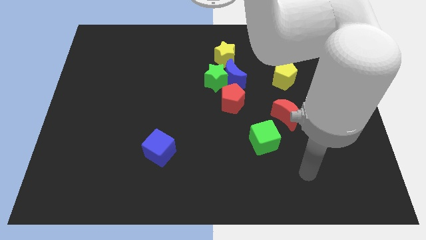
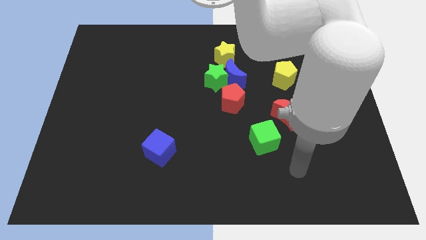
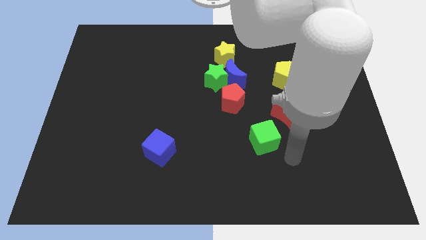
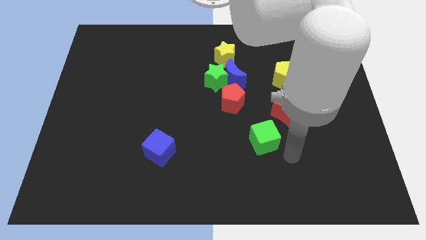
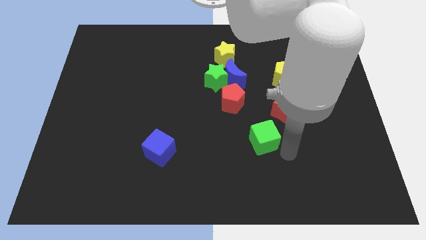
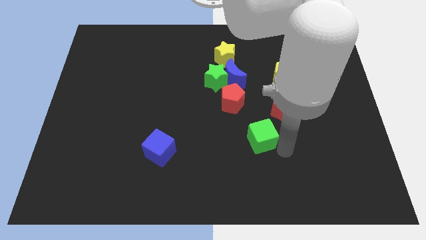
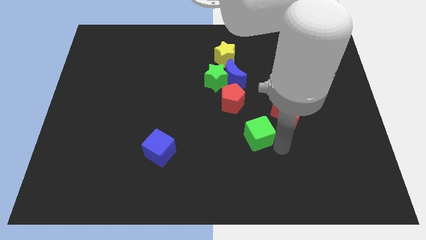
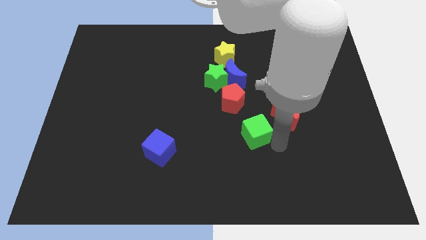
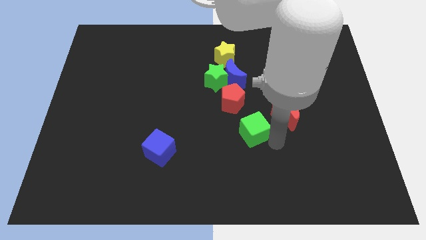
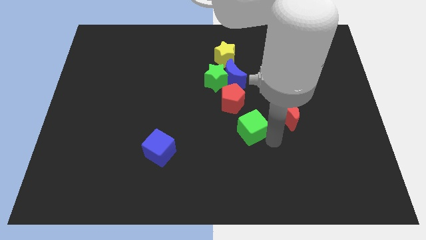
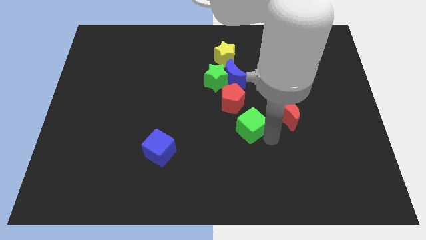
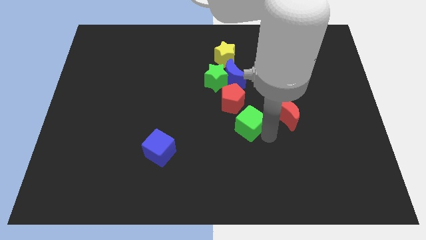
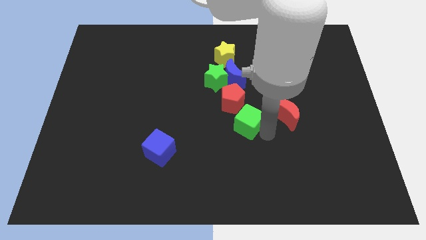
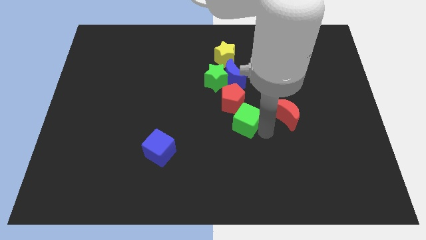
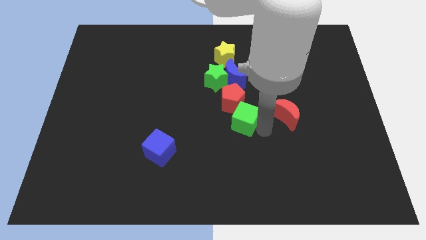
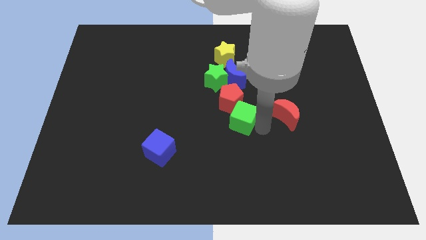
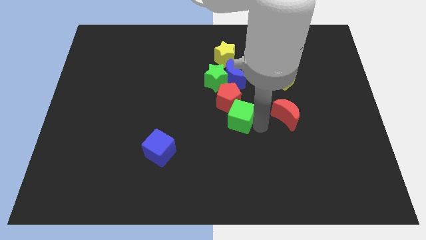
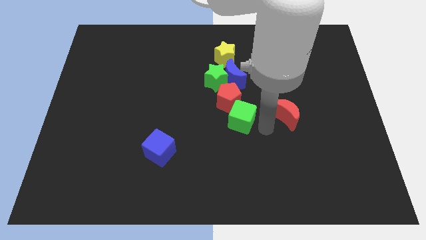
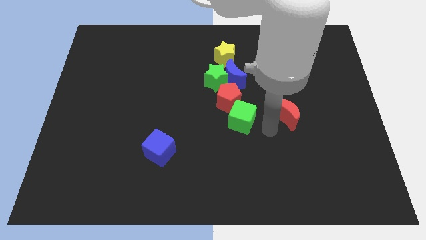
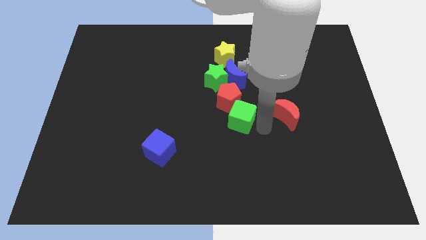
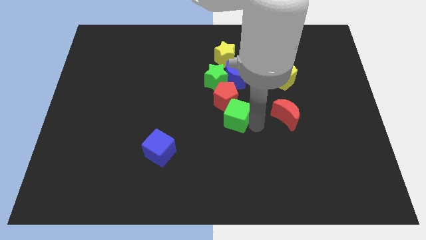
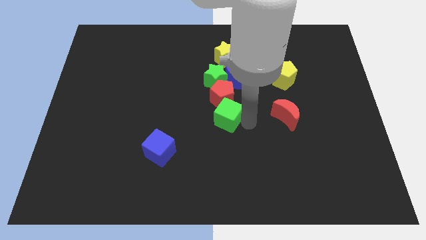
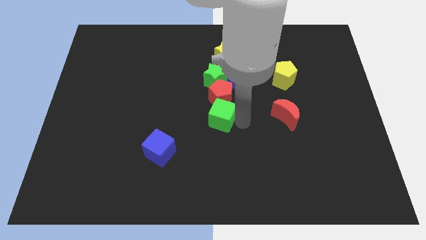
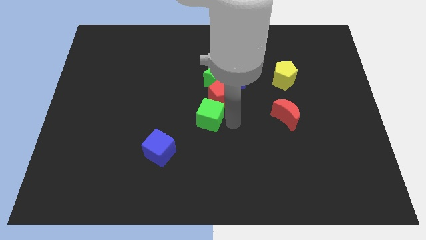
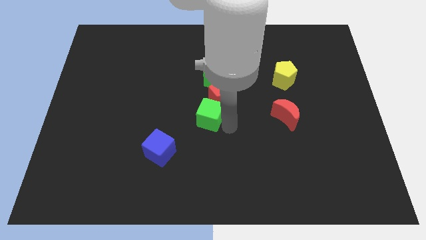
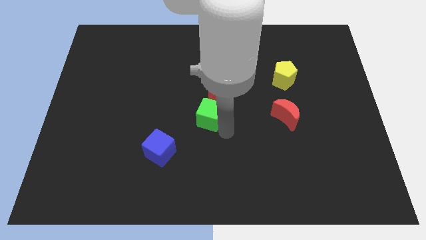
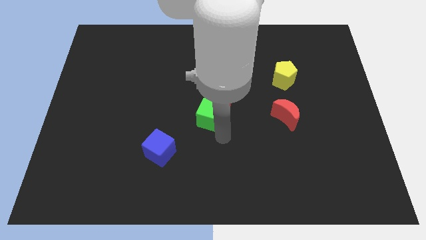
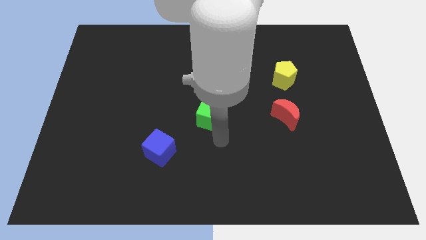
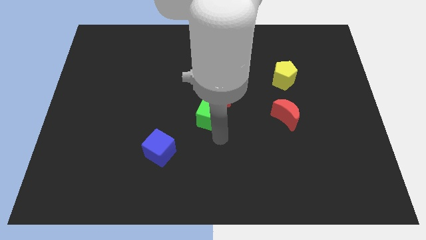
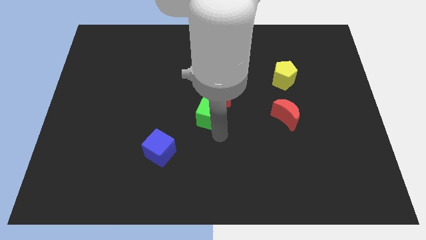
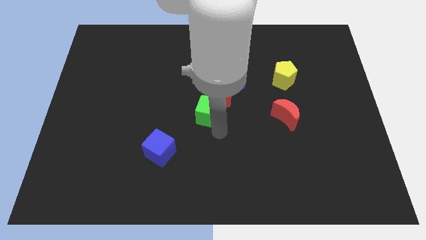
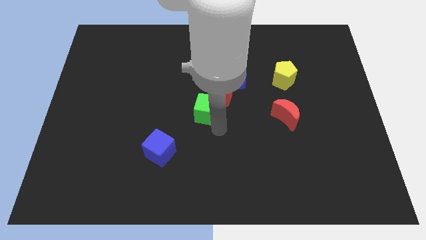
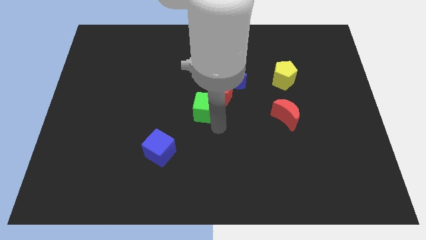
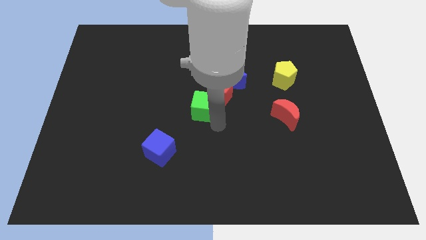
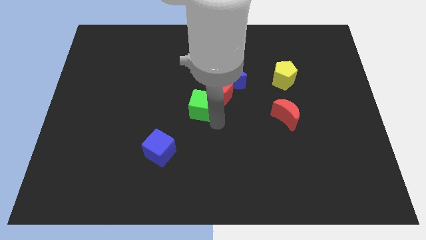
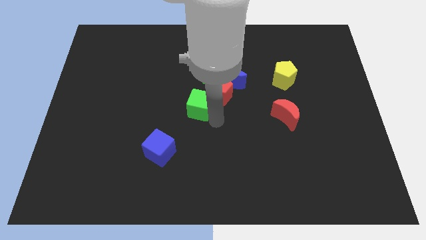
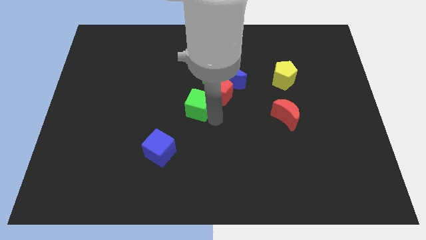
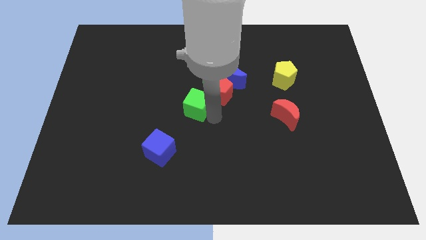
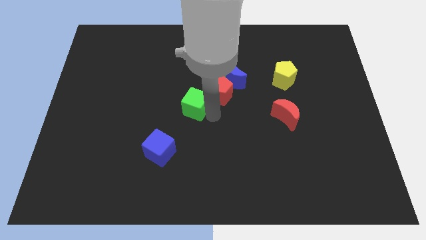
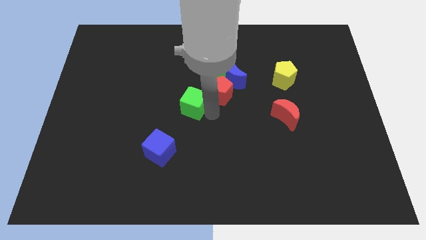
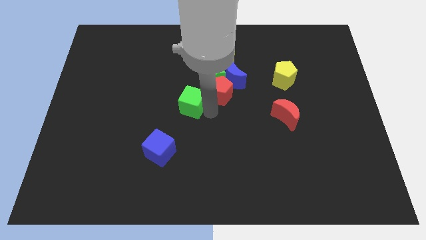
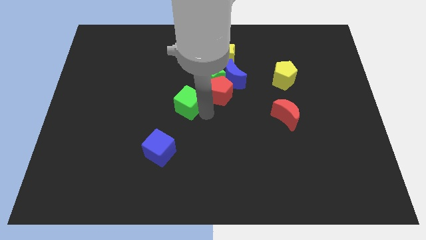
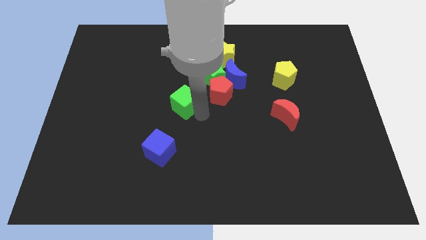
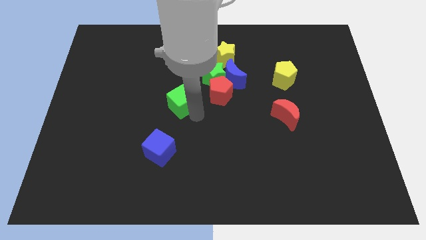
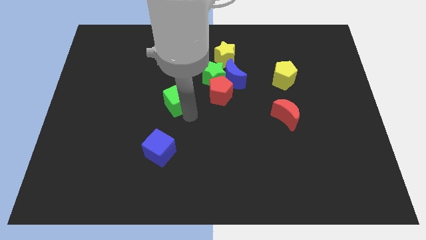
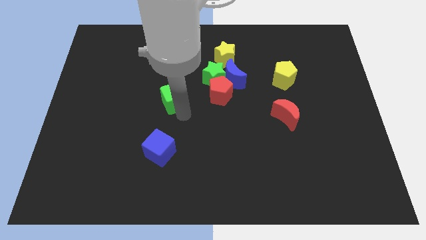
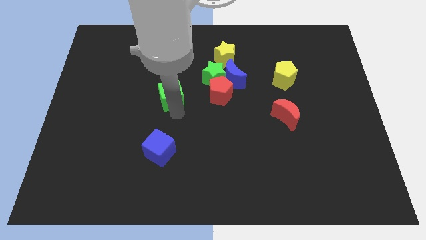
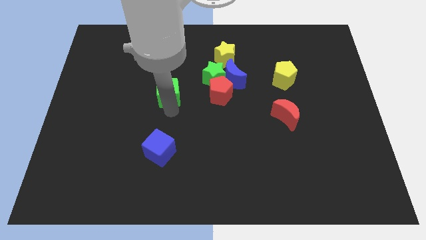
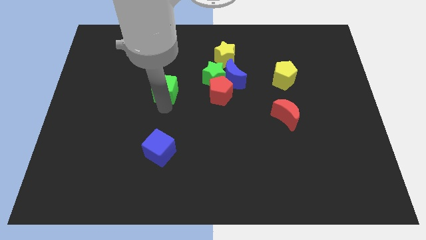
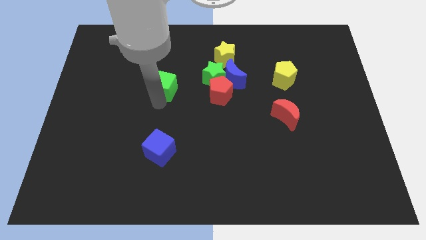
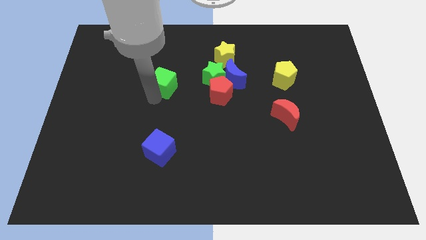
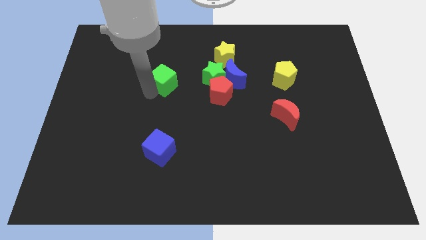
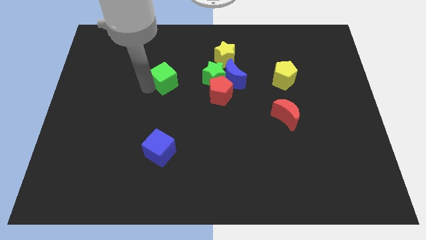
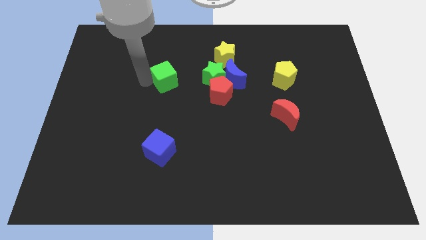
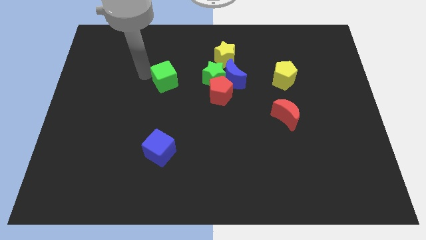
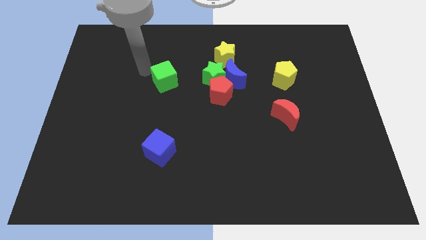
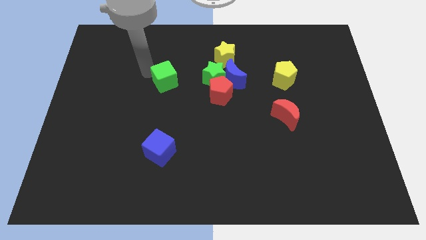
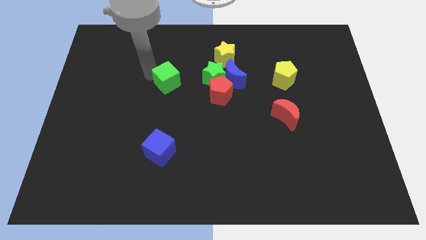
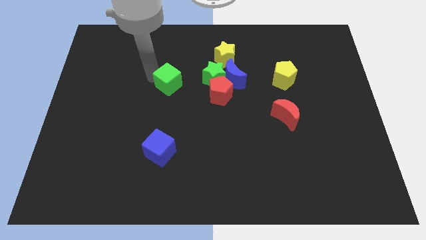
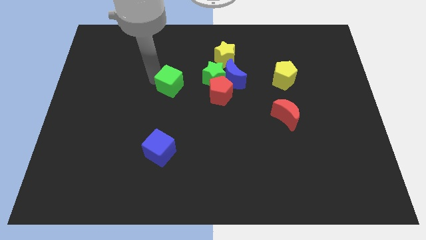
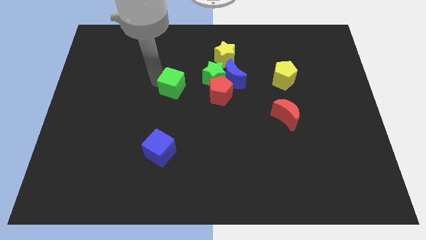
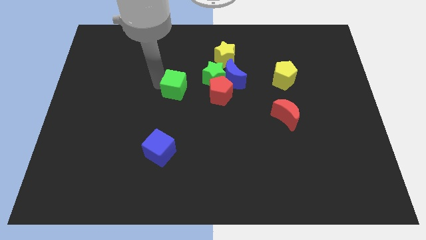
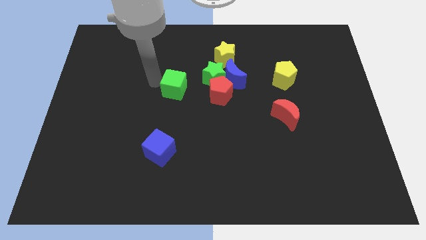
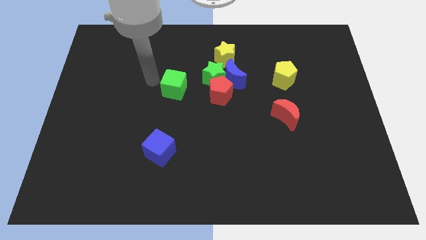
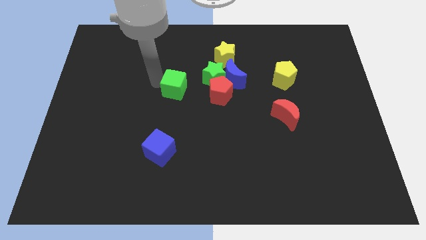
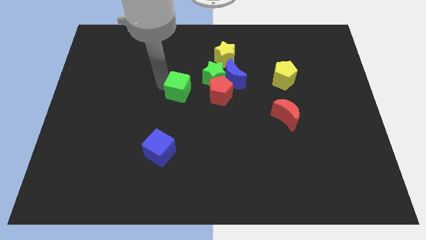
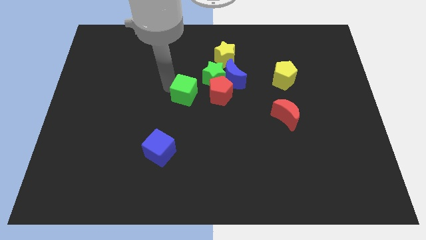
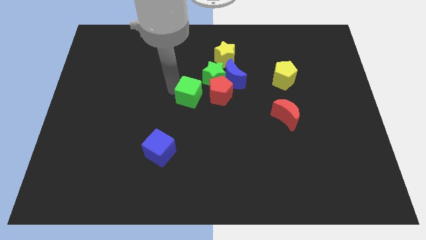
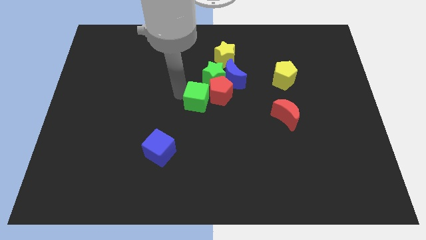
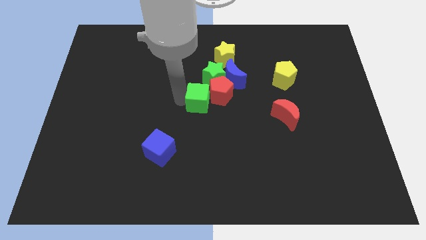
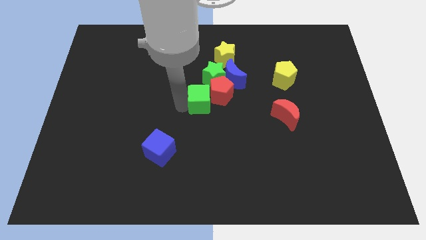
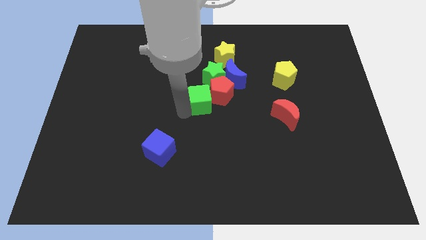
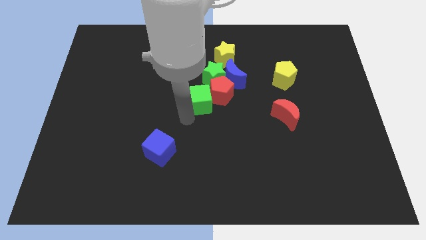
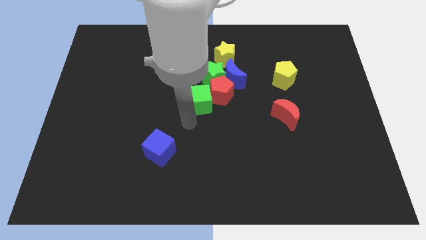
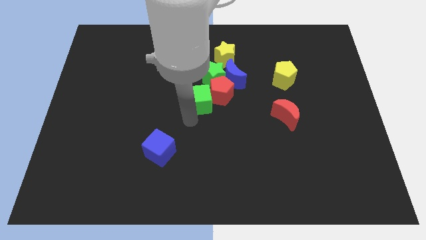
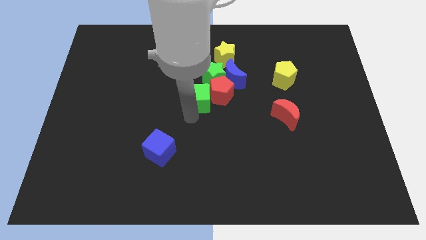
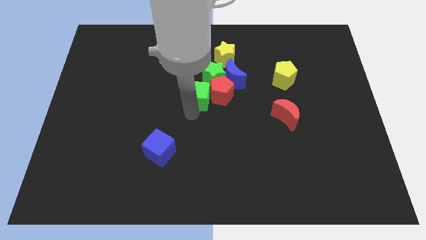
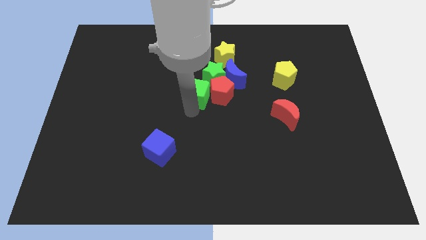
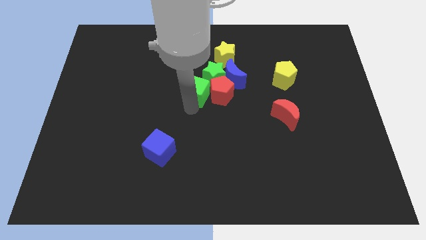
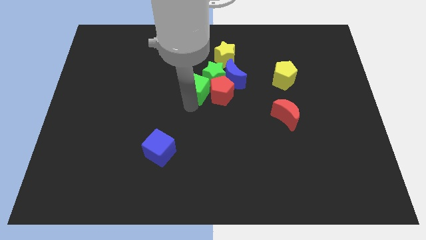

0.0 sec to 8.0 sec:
put the green cube to the green star
